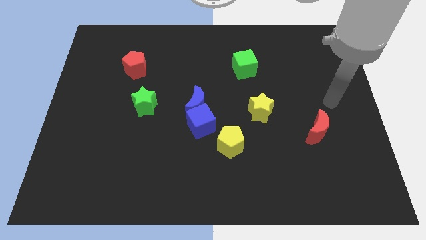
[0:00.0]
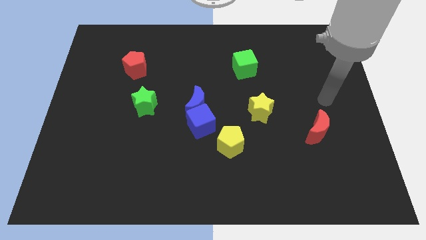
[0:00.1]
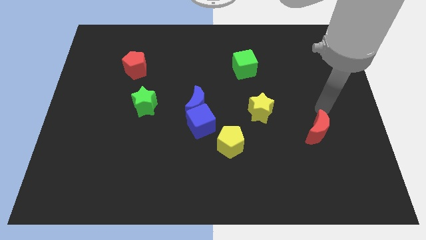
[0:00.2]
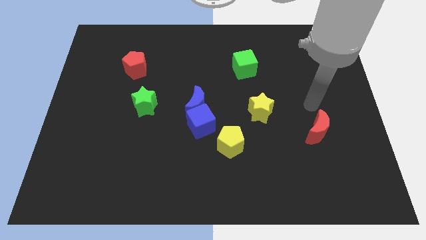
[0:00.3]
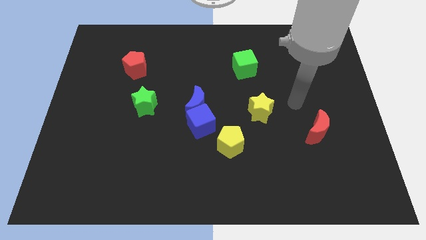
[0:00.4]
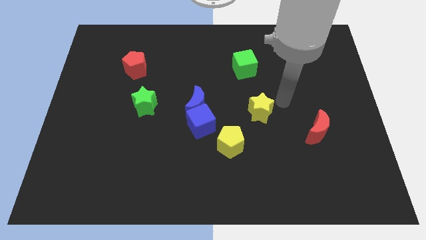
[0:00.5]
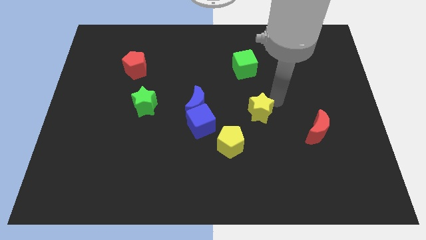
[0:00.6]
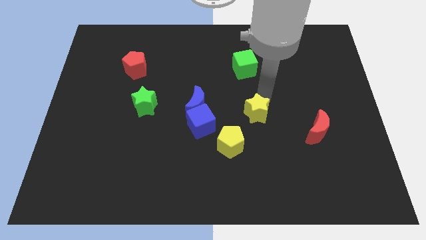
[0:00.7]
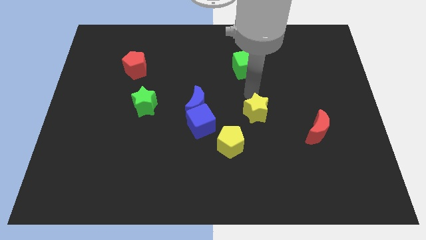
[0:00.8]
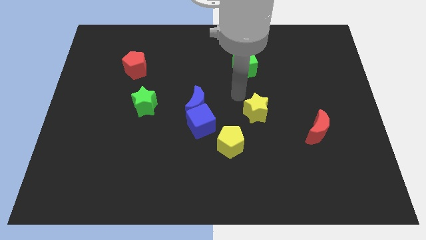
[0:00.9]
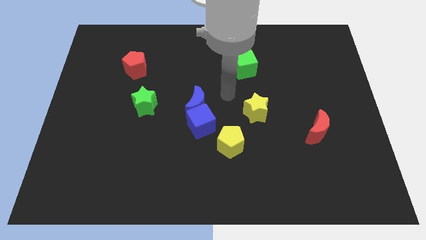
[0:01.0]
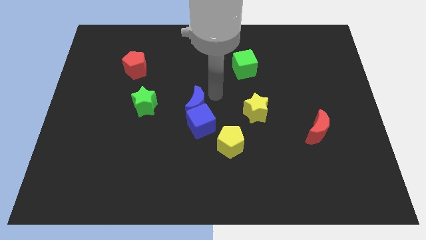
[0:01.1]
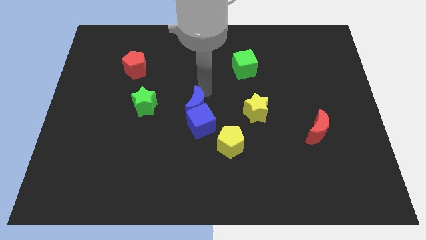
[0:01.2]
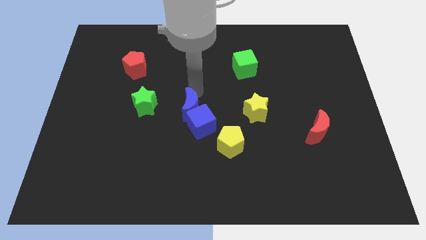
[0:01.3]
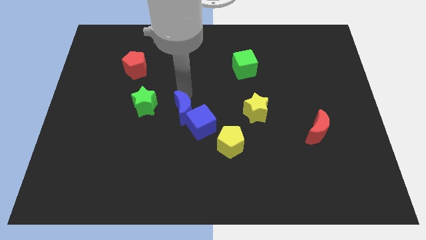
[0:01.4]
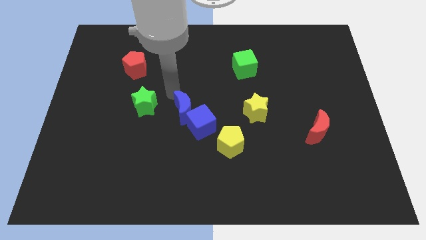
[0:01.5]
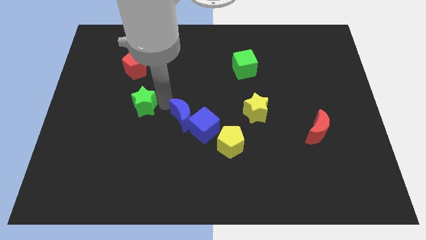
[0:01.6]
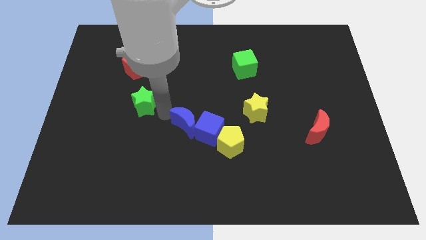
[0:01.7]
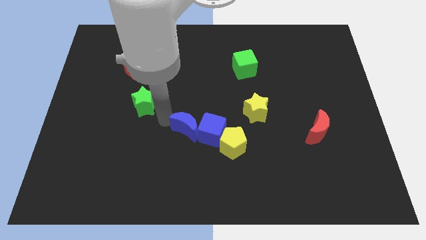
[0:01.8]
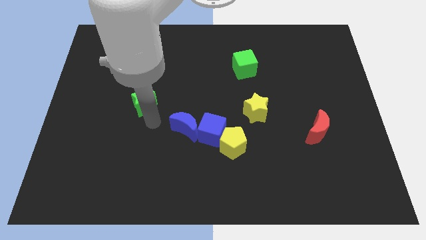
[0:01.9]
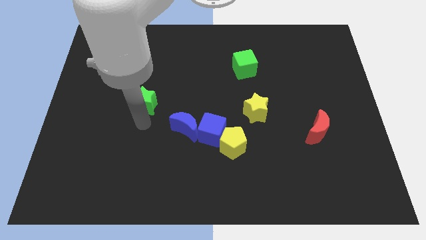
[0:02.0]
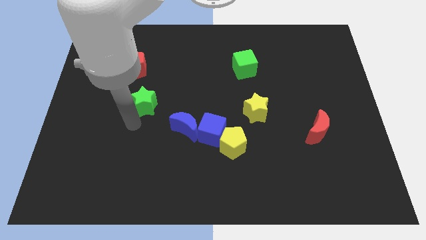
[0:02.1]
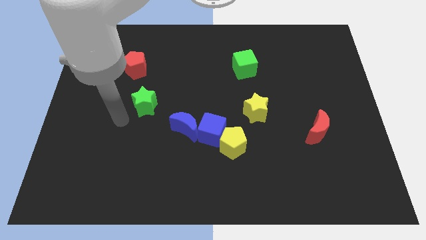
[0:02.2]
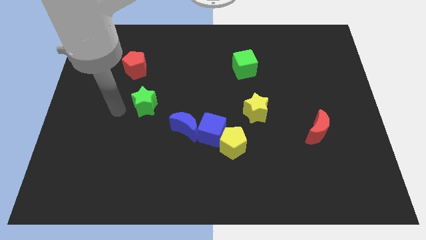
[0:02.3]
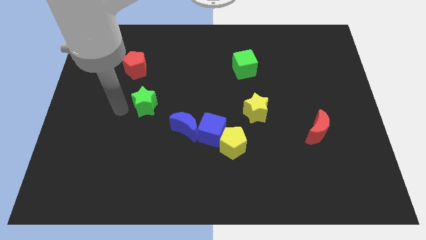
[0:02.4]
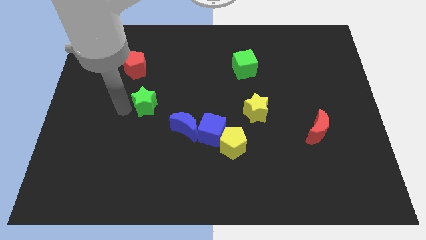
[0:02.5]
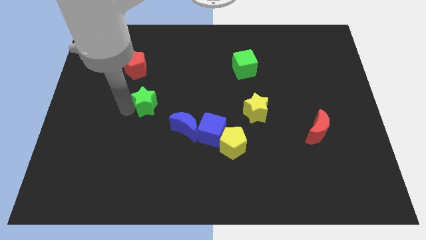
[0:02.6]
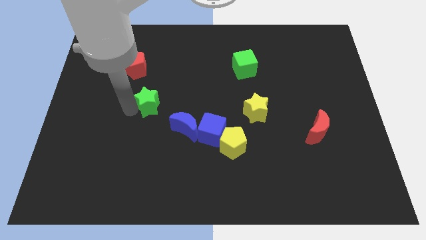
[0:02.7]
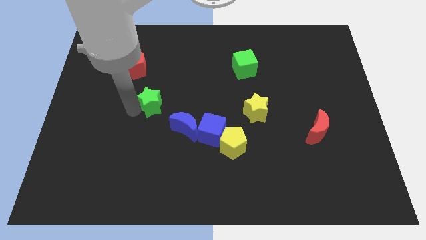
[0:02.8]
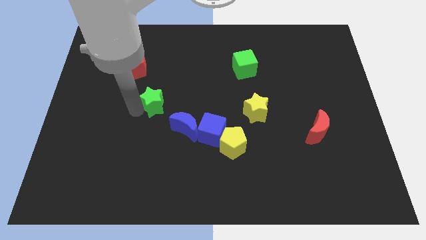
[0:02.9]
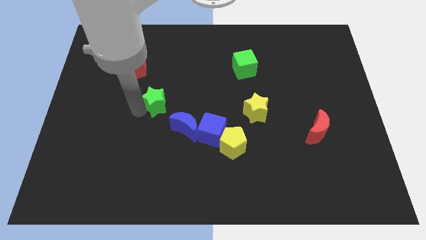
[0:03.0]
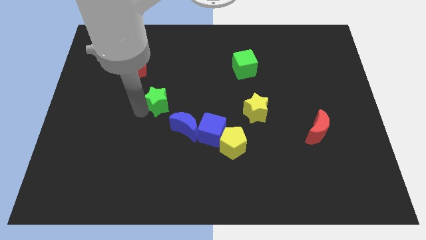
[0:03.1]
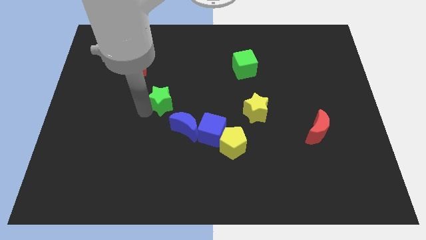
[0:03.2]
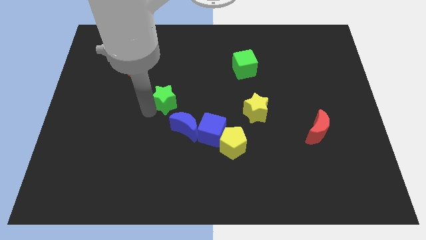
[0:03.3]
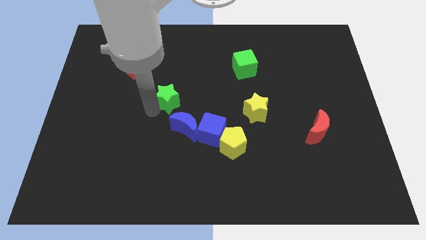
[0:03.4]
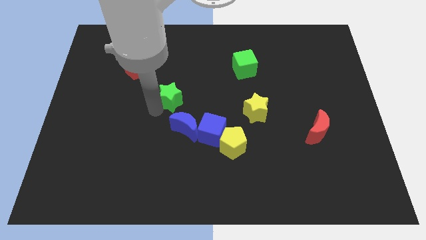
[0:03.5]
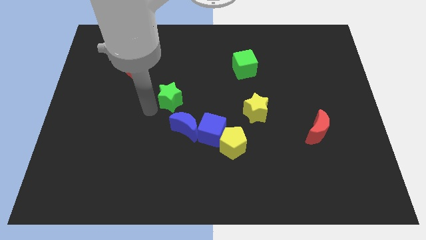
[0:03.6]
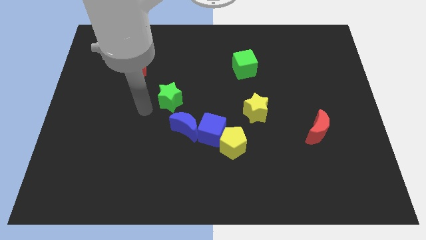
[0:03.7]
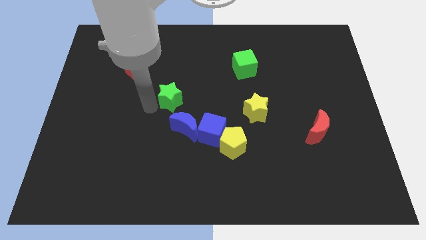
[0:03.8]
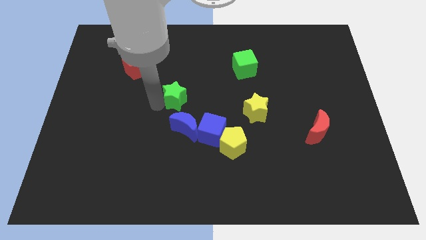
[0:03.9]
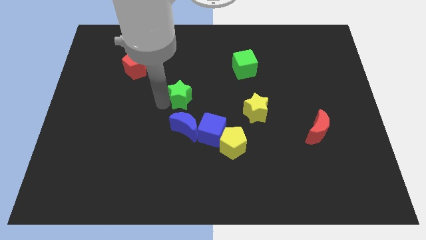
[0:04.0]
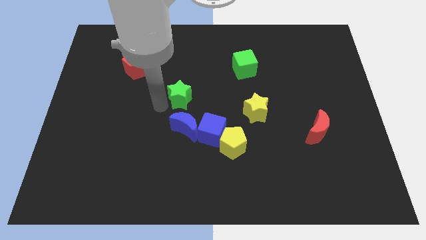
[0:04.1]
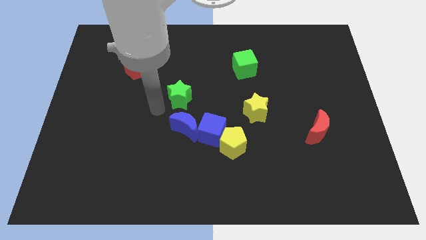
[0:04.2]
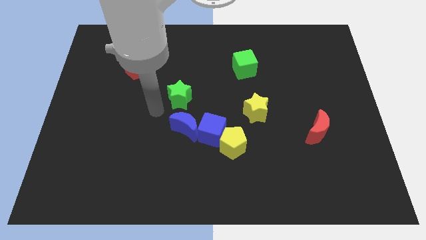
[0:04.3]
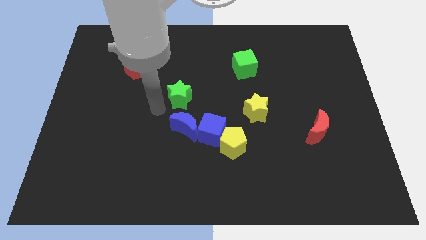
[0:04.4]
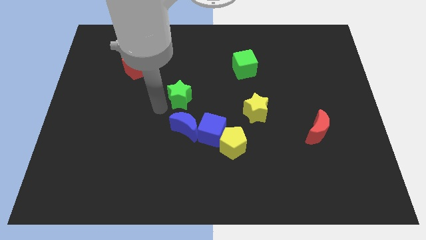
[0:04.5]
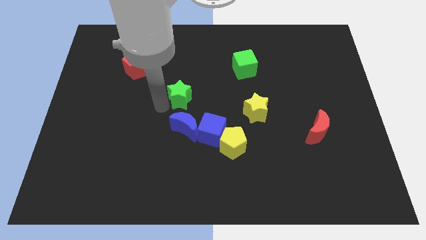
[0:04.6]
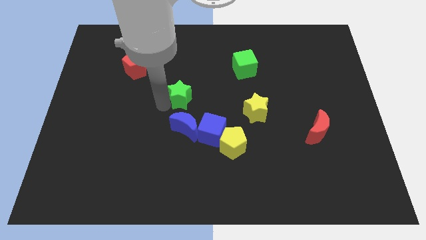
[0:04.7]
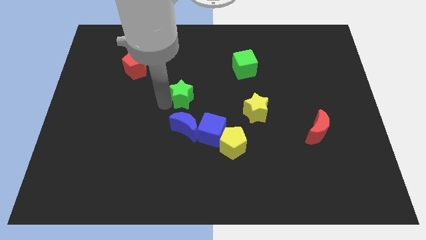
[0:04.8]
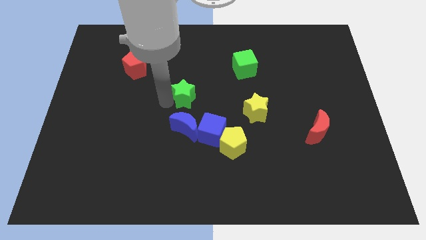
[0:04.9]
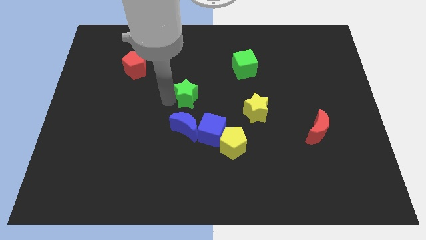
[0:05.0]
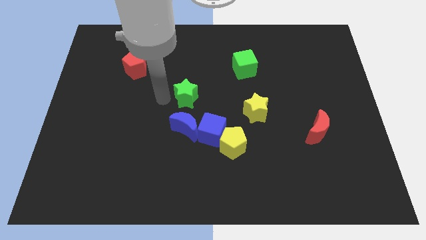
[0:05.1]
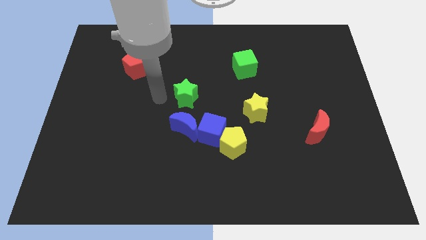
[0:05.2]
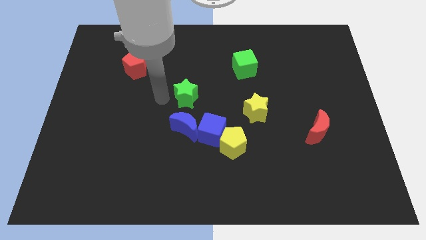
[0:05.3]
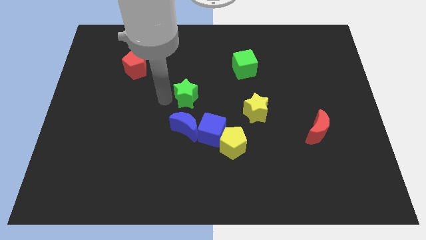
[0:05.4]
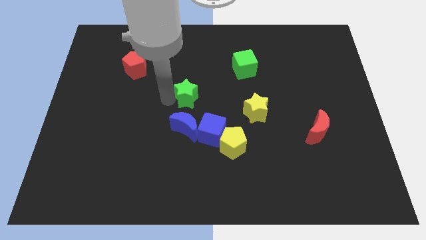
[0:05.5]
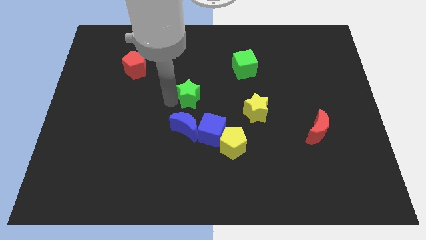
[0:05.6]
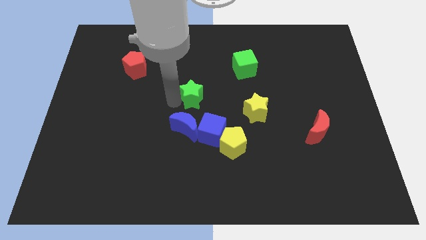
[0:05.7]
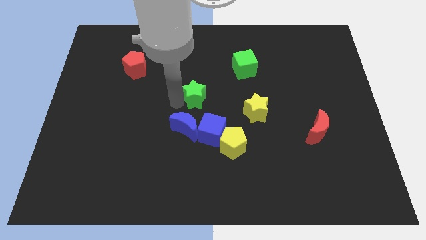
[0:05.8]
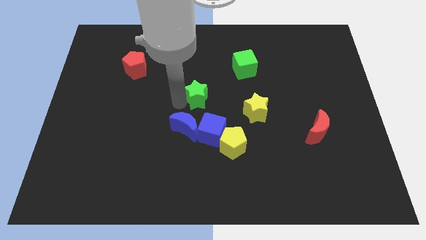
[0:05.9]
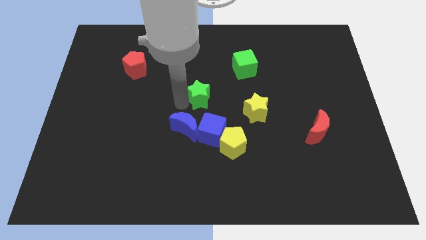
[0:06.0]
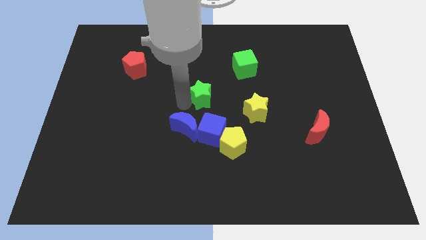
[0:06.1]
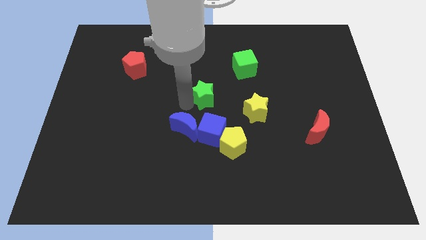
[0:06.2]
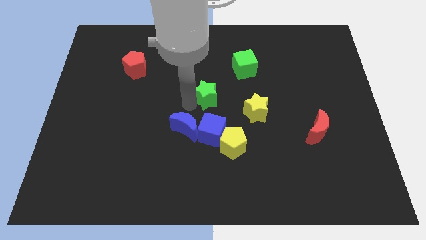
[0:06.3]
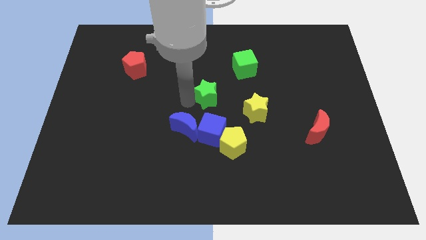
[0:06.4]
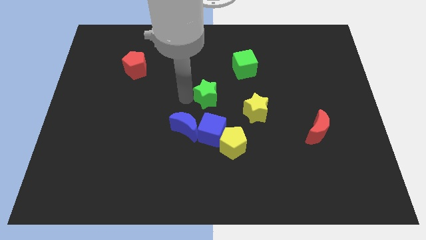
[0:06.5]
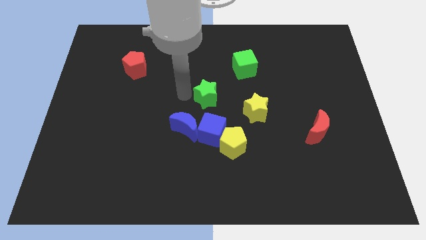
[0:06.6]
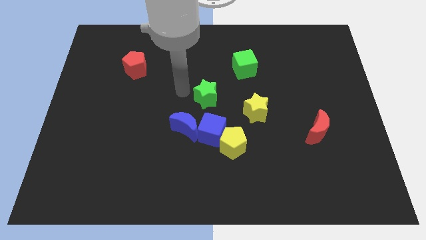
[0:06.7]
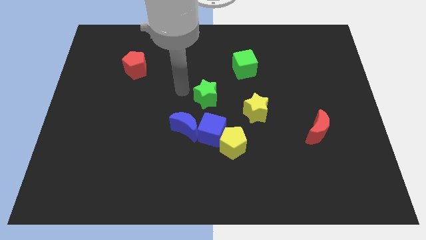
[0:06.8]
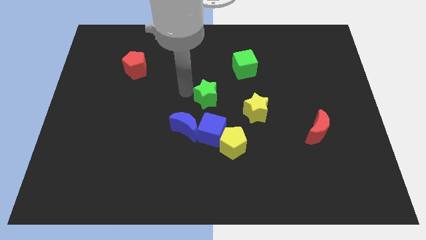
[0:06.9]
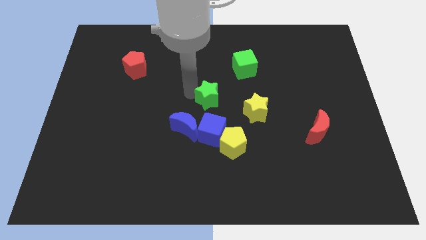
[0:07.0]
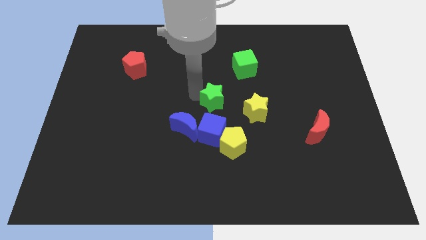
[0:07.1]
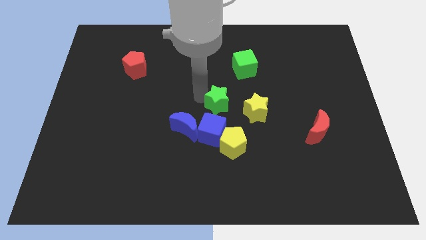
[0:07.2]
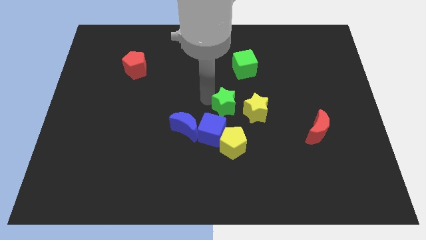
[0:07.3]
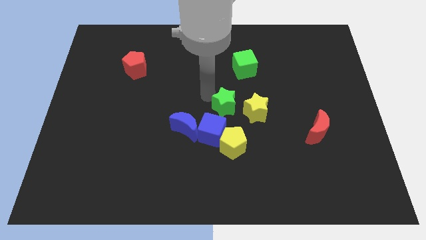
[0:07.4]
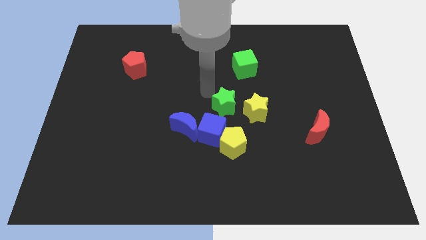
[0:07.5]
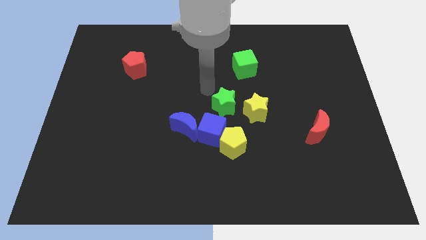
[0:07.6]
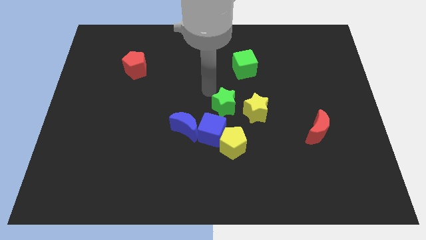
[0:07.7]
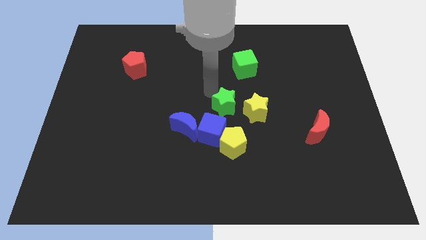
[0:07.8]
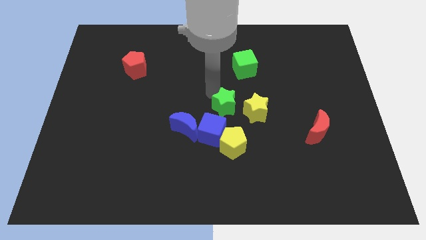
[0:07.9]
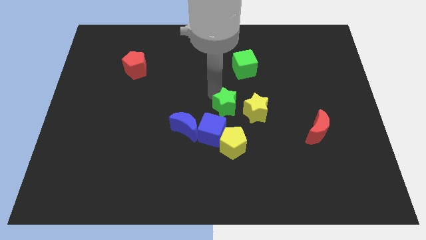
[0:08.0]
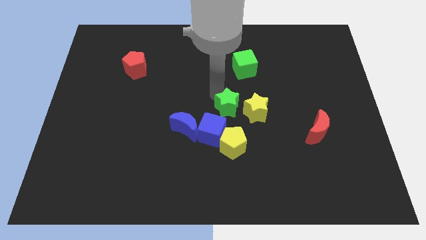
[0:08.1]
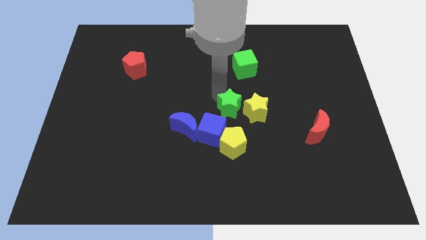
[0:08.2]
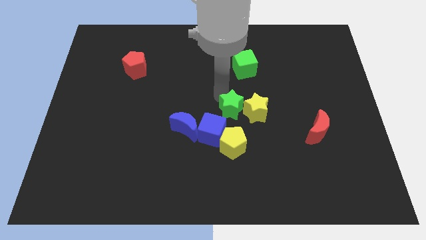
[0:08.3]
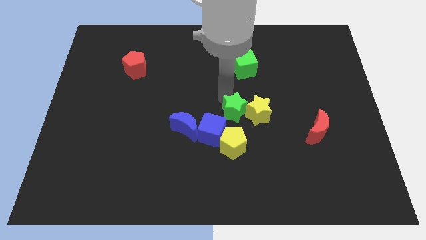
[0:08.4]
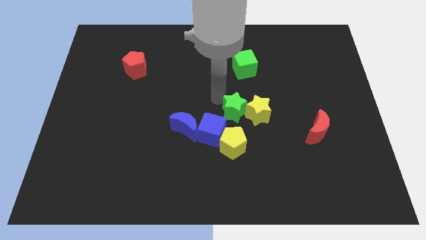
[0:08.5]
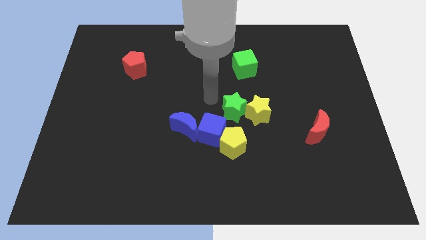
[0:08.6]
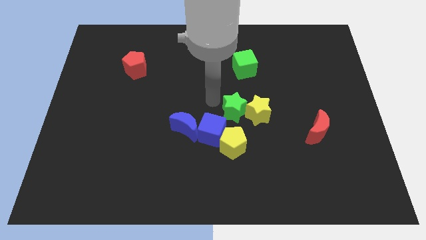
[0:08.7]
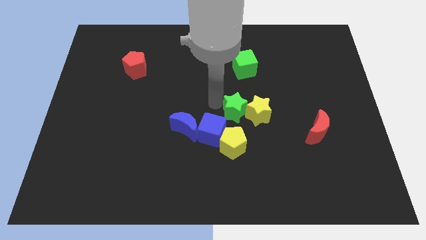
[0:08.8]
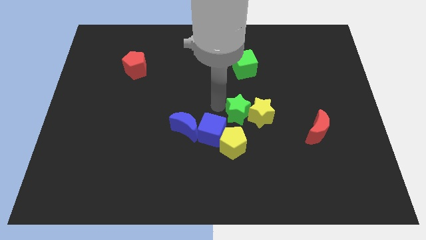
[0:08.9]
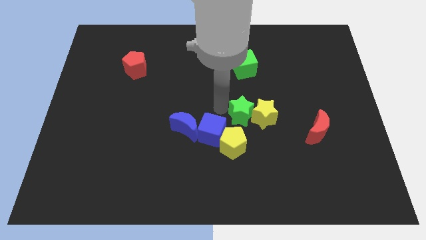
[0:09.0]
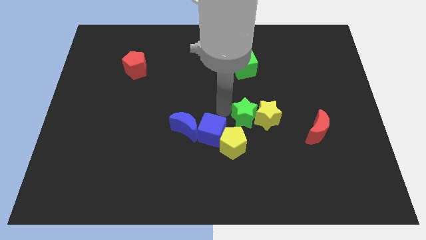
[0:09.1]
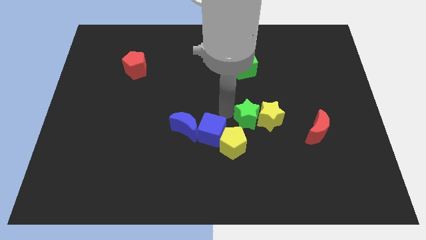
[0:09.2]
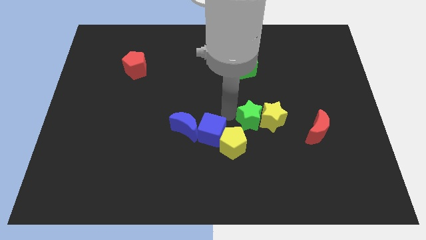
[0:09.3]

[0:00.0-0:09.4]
push the green star to the left side of the red moon
